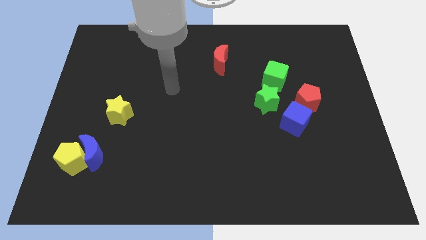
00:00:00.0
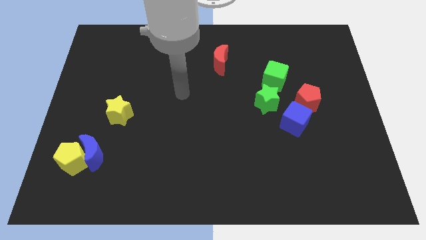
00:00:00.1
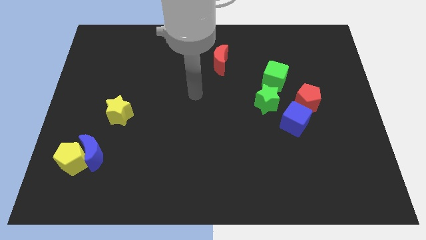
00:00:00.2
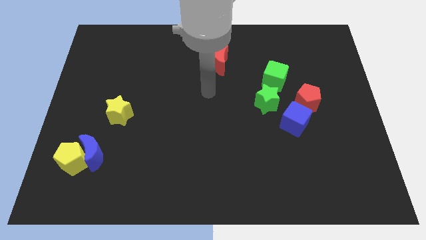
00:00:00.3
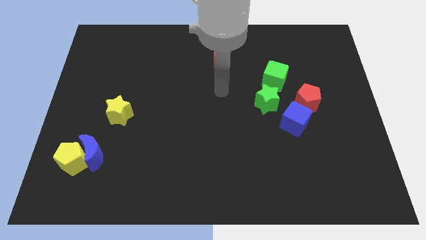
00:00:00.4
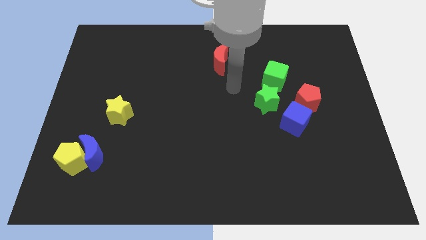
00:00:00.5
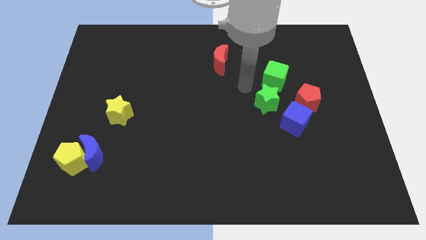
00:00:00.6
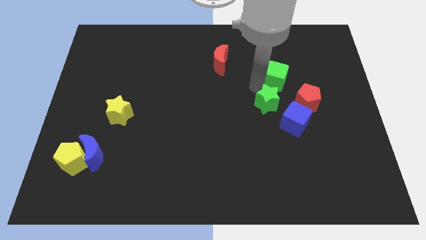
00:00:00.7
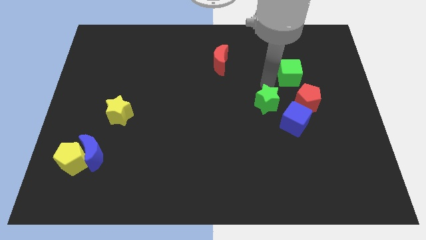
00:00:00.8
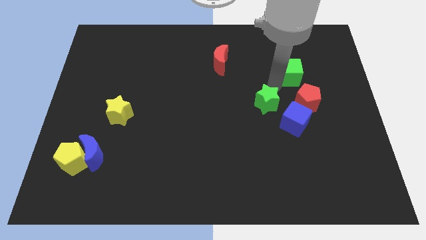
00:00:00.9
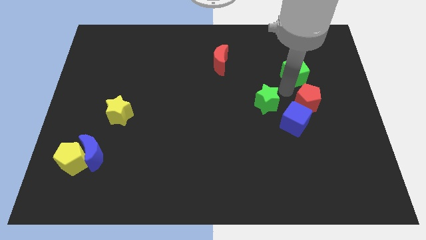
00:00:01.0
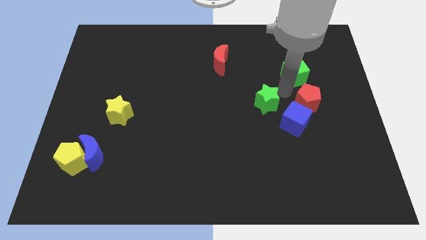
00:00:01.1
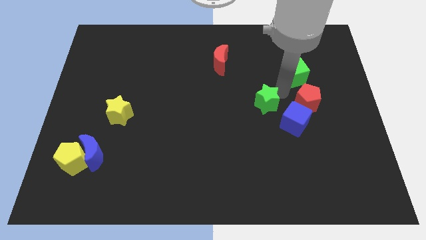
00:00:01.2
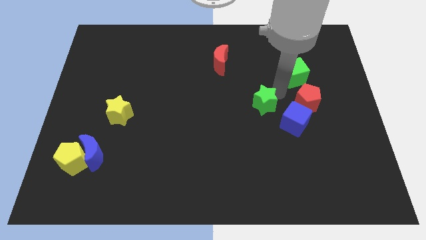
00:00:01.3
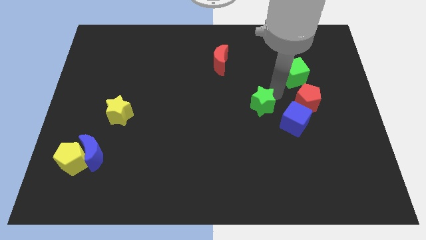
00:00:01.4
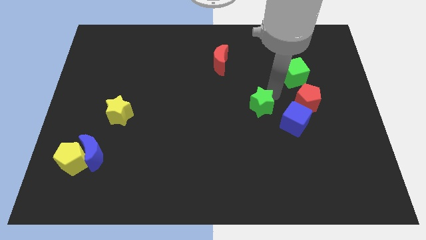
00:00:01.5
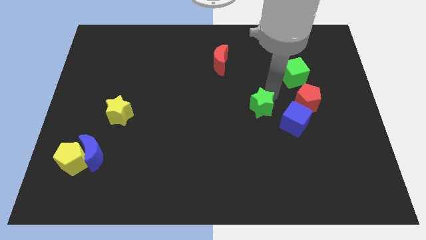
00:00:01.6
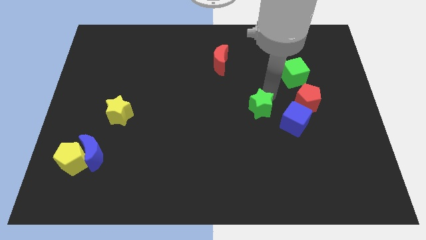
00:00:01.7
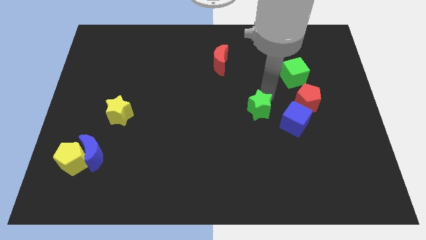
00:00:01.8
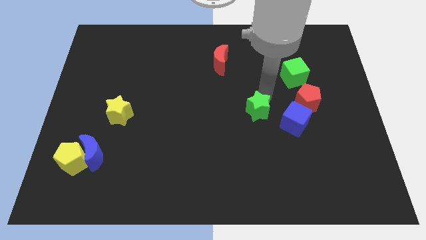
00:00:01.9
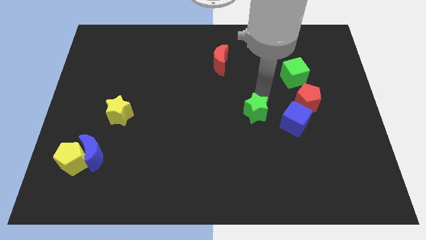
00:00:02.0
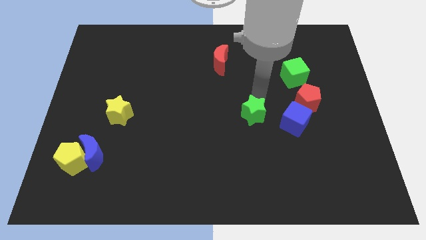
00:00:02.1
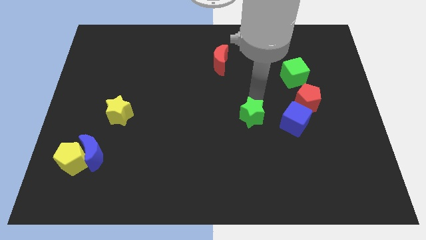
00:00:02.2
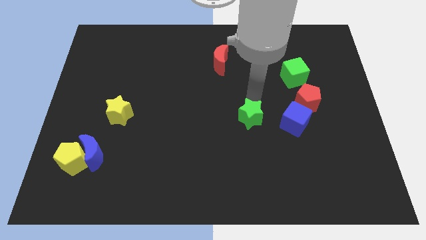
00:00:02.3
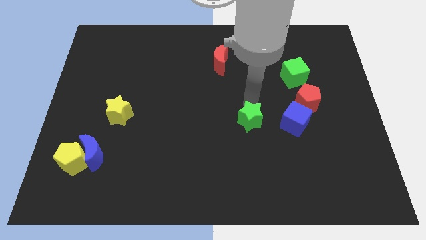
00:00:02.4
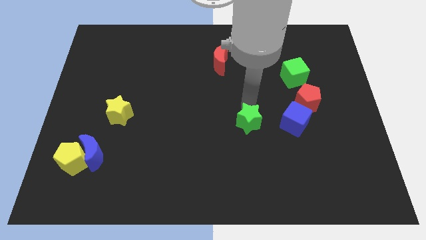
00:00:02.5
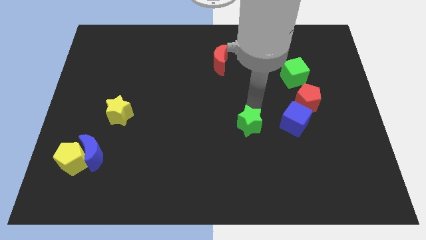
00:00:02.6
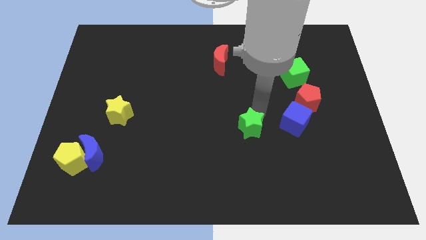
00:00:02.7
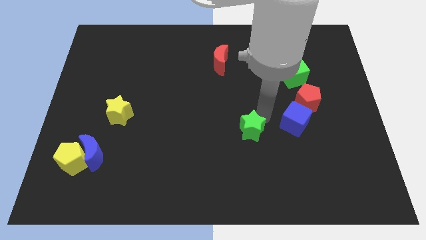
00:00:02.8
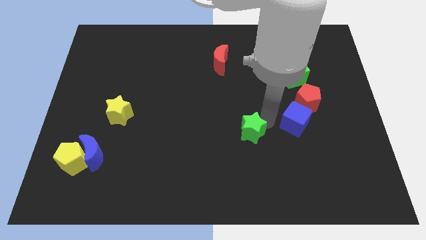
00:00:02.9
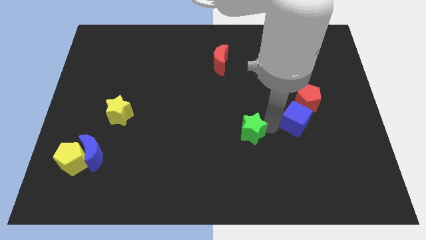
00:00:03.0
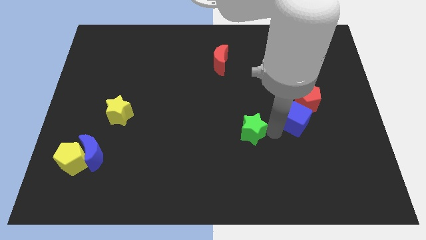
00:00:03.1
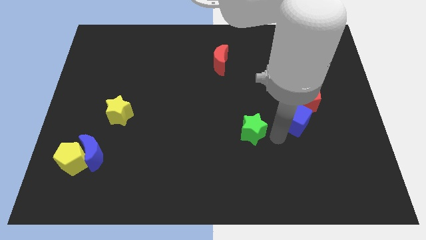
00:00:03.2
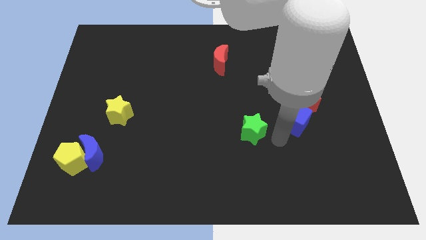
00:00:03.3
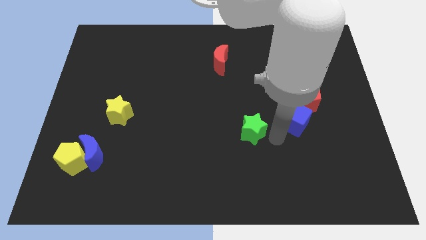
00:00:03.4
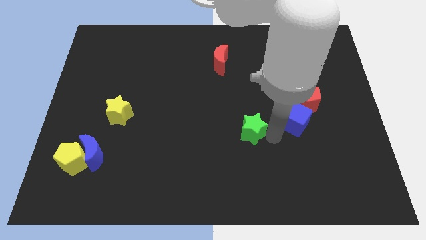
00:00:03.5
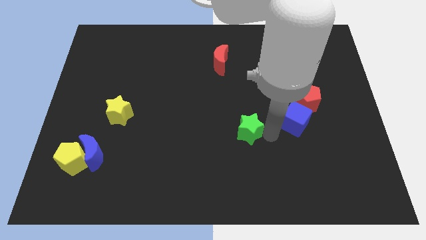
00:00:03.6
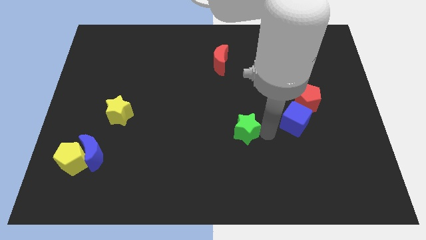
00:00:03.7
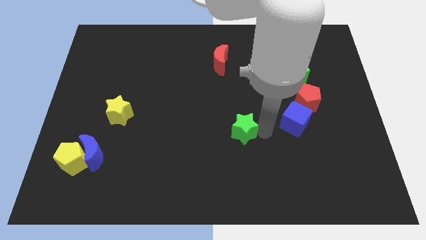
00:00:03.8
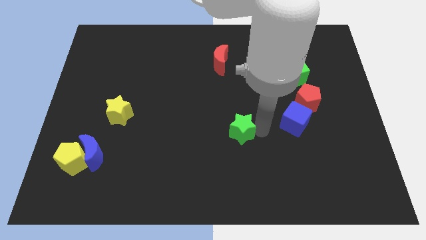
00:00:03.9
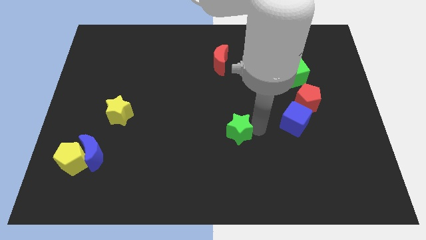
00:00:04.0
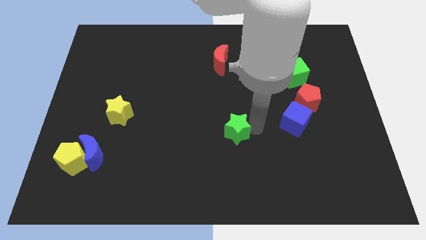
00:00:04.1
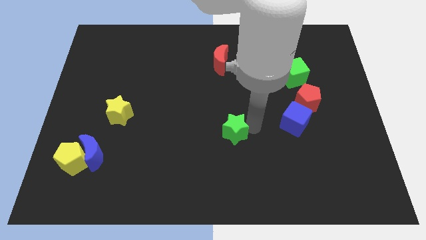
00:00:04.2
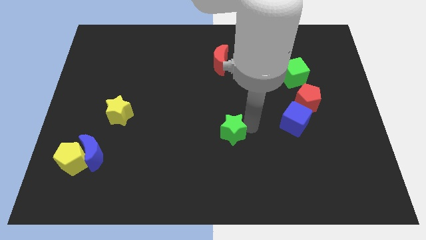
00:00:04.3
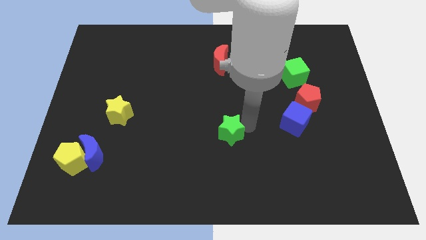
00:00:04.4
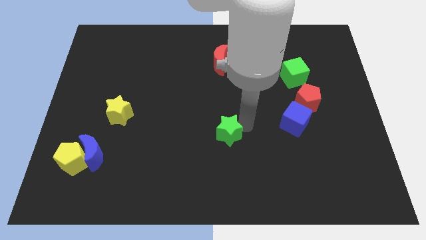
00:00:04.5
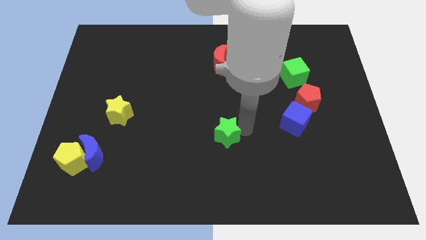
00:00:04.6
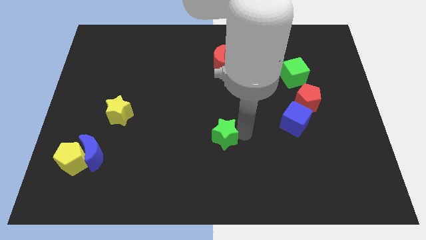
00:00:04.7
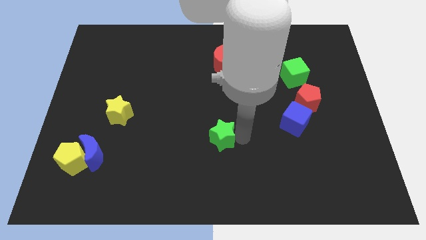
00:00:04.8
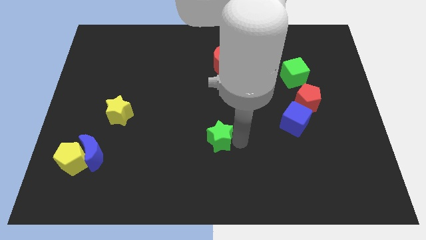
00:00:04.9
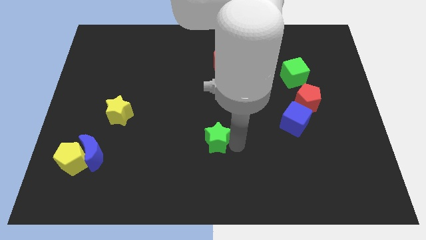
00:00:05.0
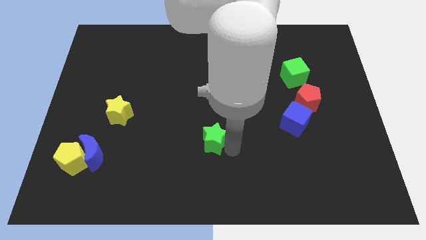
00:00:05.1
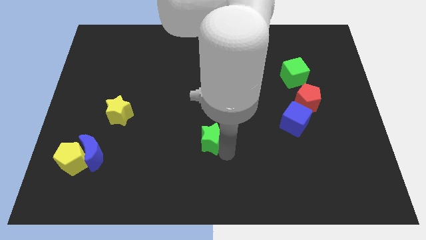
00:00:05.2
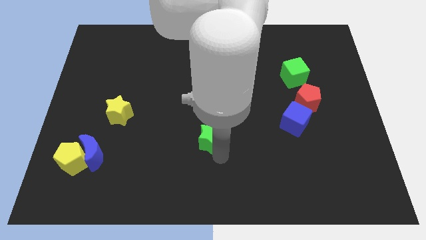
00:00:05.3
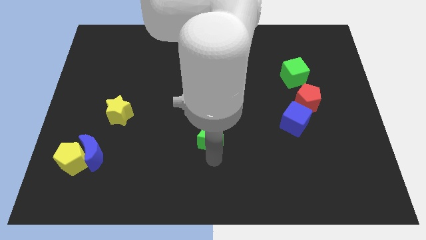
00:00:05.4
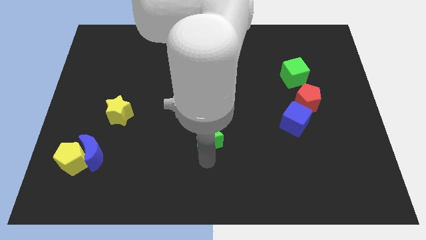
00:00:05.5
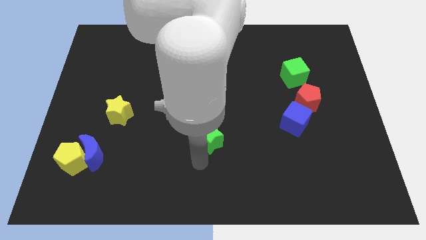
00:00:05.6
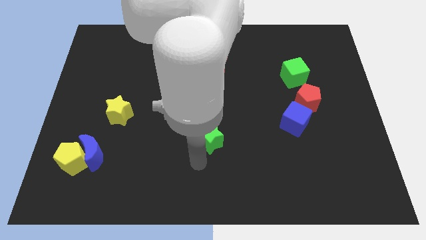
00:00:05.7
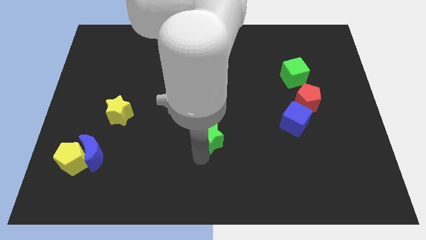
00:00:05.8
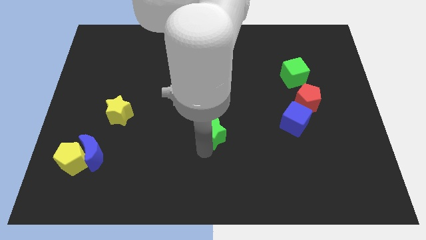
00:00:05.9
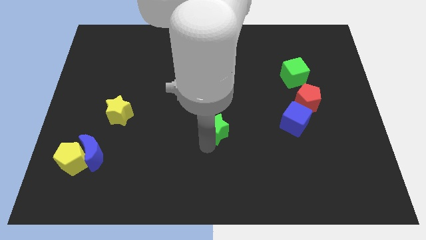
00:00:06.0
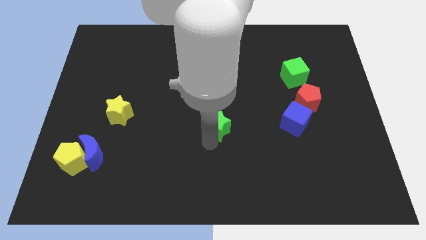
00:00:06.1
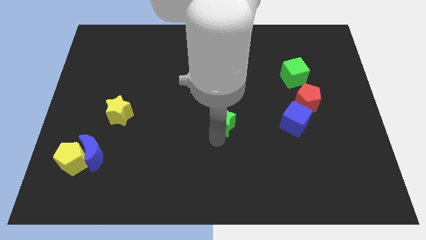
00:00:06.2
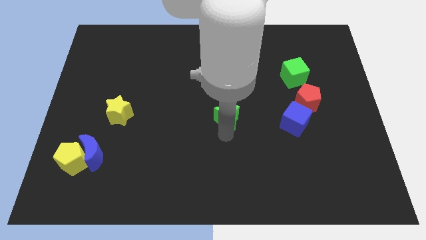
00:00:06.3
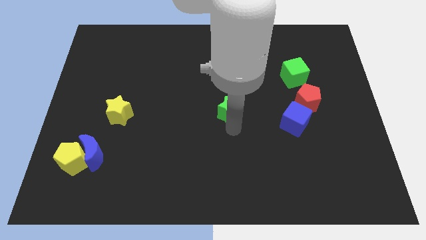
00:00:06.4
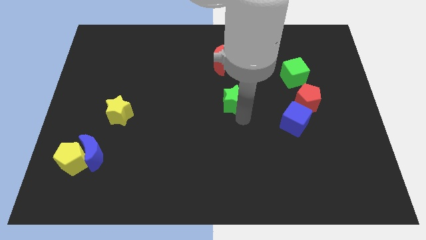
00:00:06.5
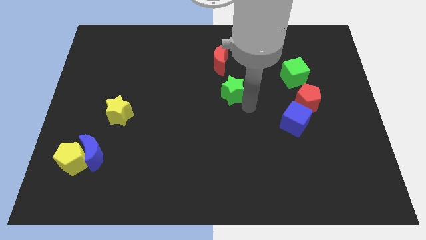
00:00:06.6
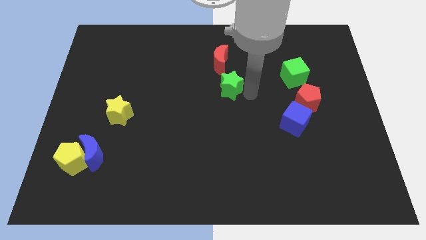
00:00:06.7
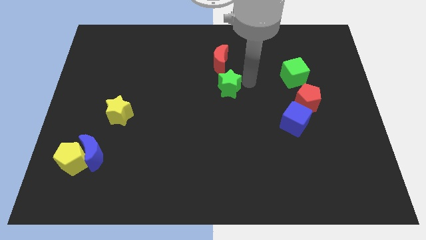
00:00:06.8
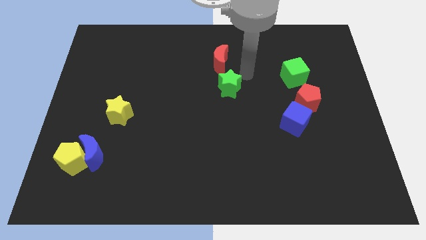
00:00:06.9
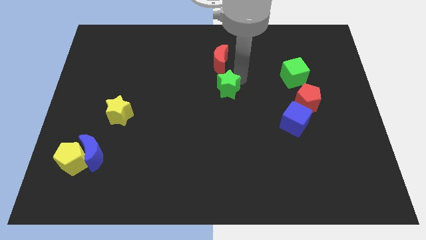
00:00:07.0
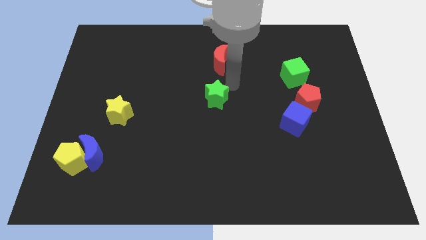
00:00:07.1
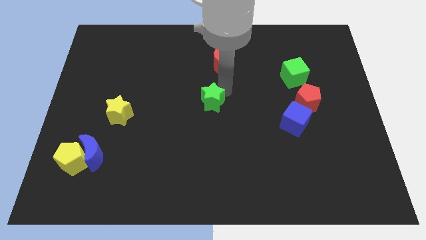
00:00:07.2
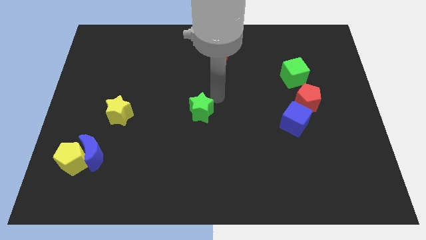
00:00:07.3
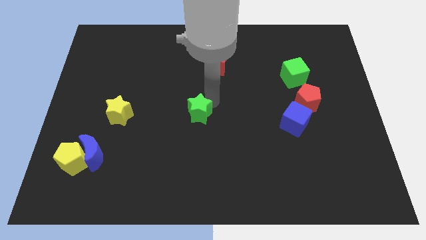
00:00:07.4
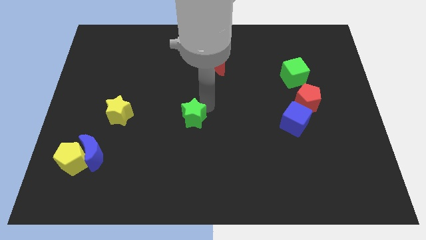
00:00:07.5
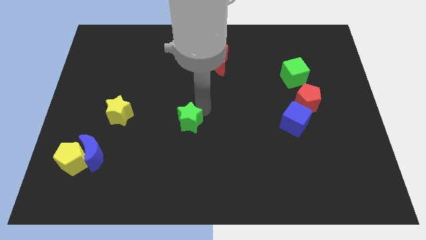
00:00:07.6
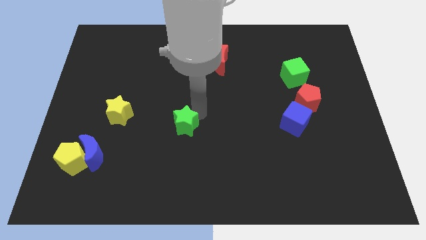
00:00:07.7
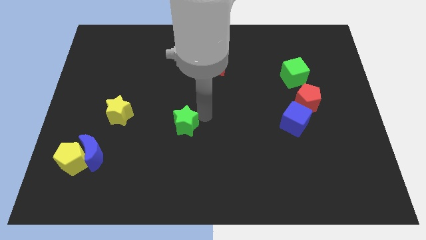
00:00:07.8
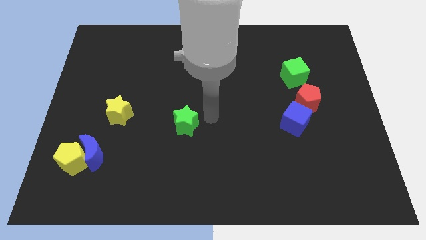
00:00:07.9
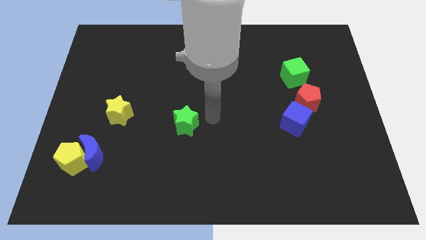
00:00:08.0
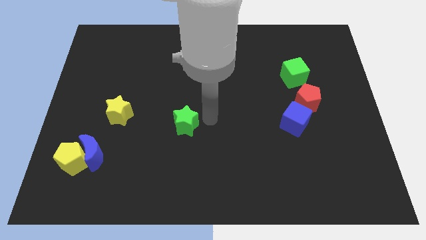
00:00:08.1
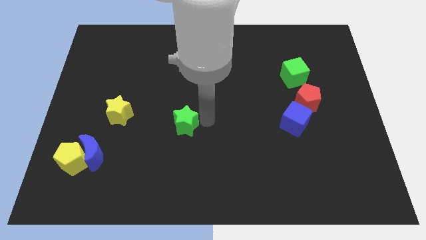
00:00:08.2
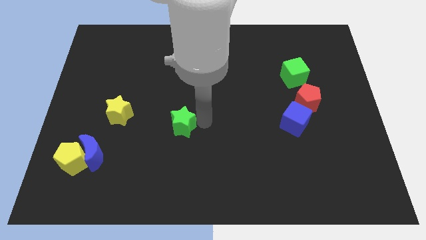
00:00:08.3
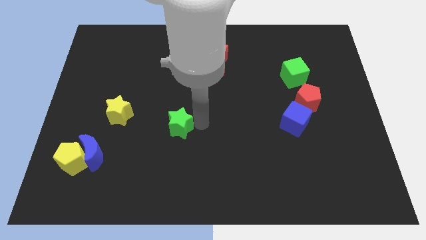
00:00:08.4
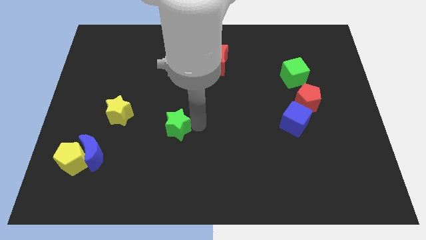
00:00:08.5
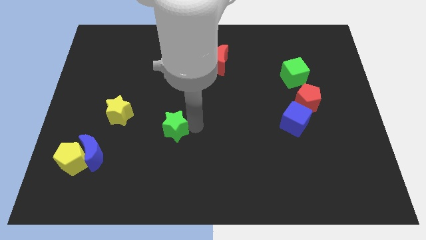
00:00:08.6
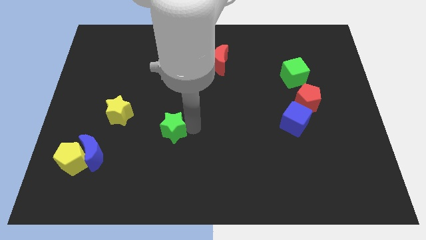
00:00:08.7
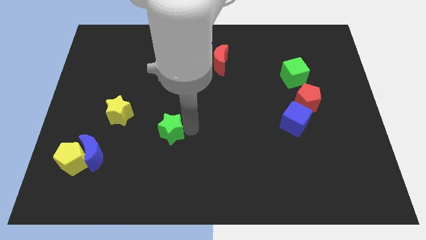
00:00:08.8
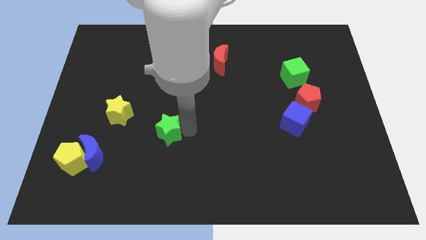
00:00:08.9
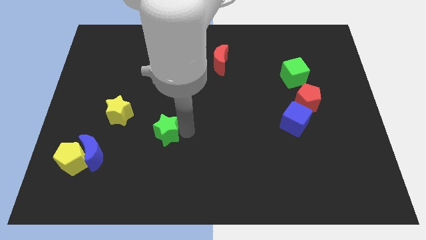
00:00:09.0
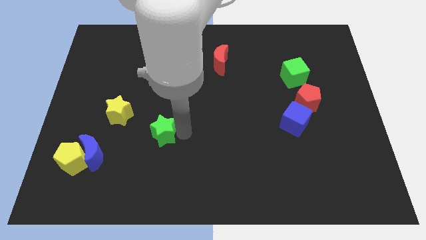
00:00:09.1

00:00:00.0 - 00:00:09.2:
slide the green star diagonally down and to the right of the yellow star
